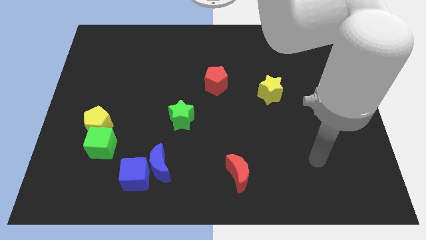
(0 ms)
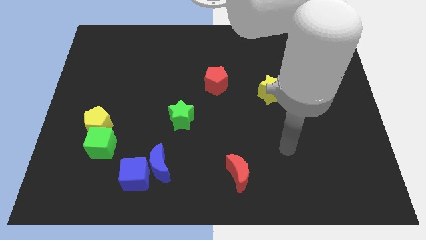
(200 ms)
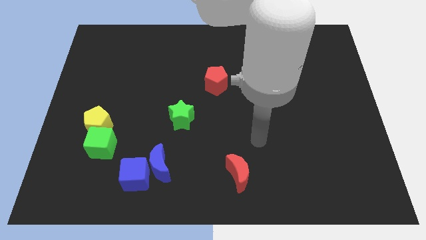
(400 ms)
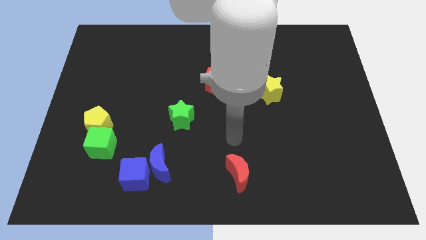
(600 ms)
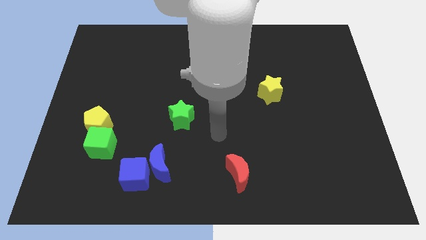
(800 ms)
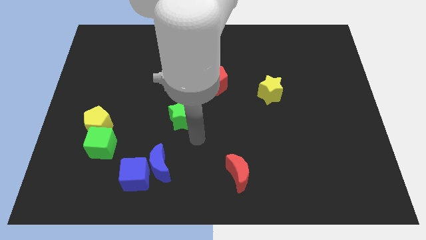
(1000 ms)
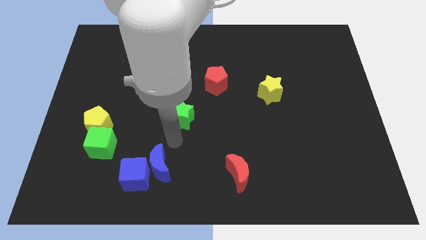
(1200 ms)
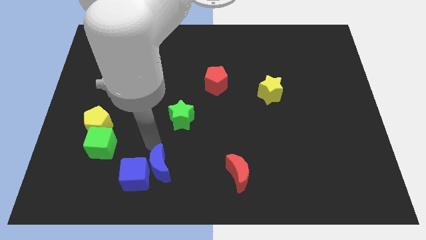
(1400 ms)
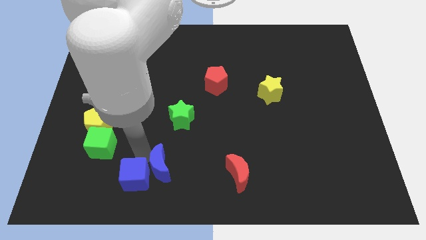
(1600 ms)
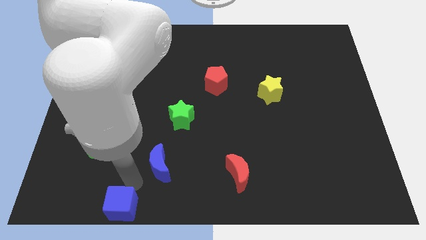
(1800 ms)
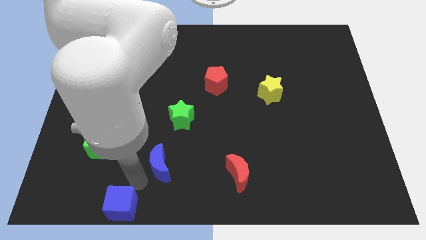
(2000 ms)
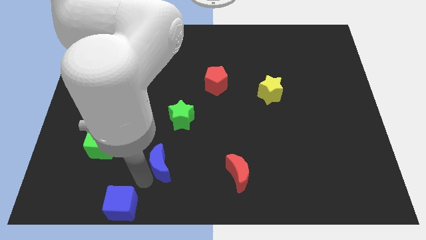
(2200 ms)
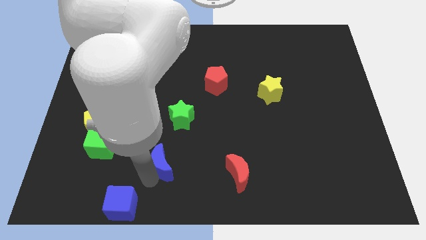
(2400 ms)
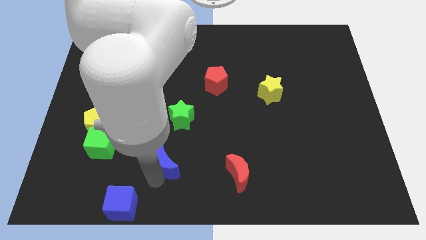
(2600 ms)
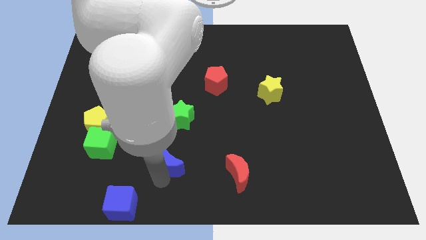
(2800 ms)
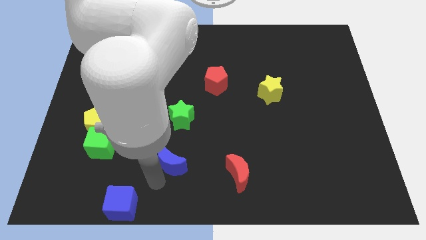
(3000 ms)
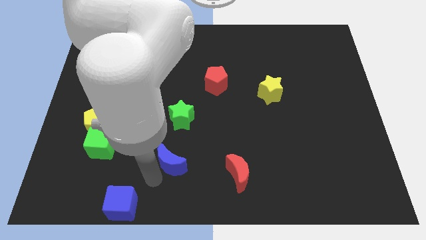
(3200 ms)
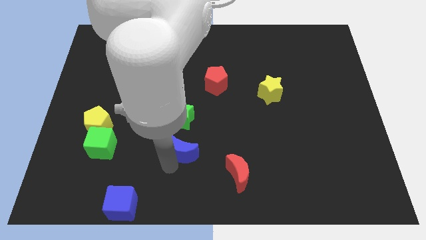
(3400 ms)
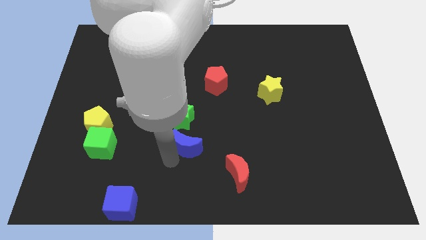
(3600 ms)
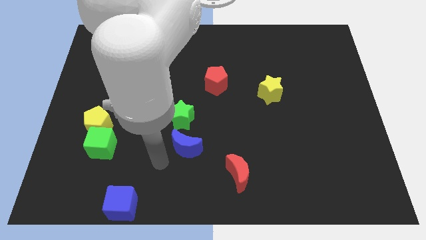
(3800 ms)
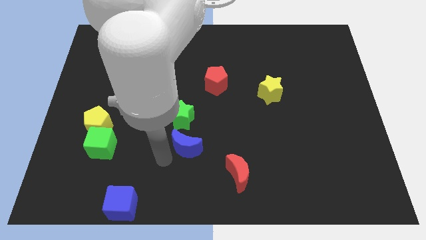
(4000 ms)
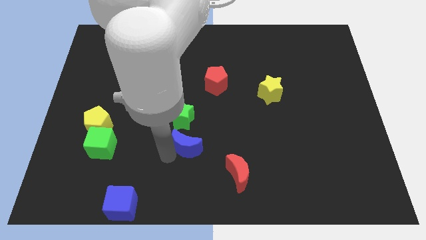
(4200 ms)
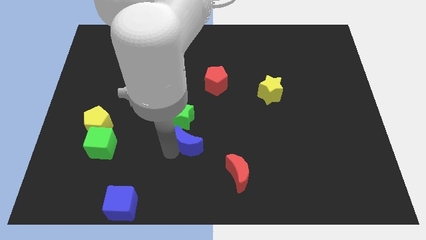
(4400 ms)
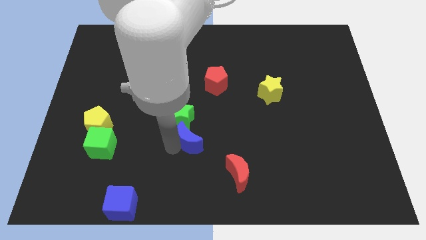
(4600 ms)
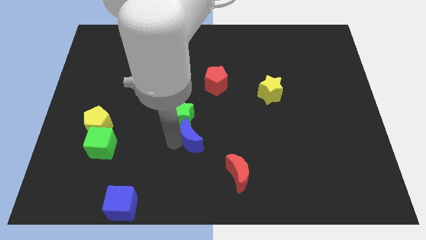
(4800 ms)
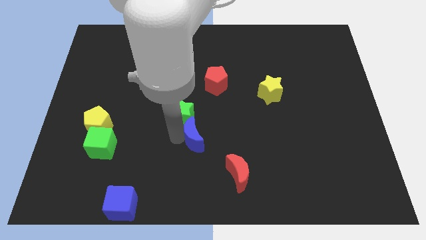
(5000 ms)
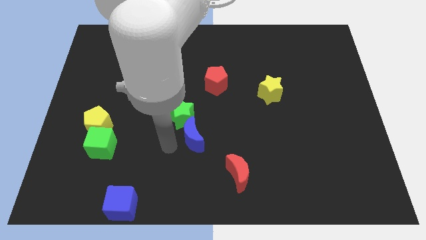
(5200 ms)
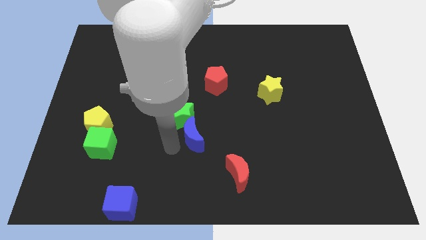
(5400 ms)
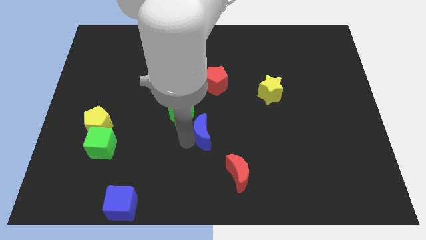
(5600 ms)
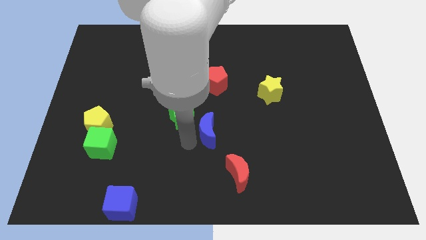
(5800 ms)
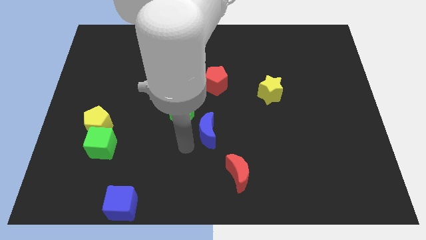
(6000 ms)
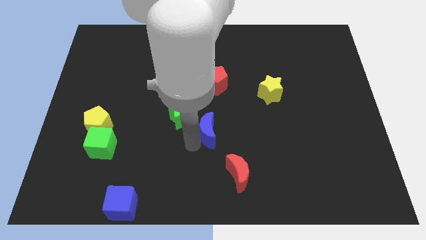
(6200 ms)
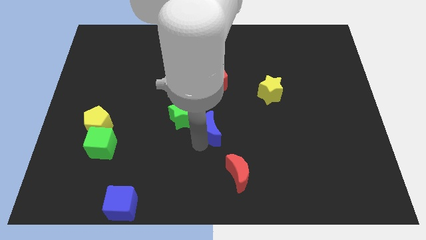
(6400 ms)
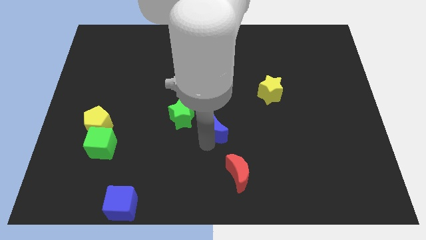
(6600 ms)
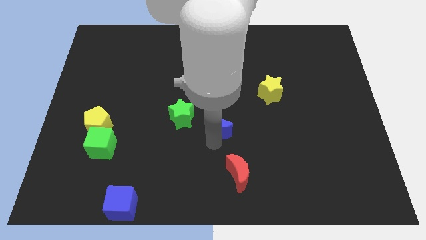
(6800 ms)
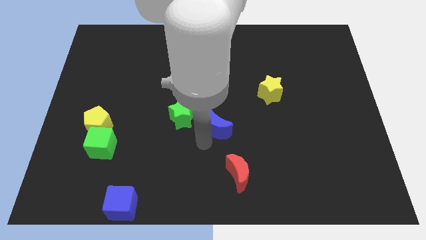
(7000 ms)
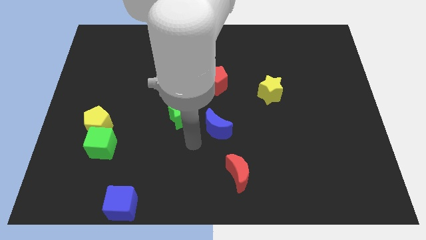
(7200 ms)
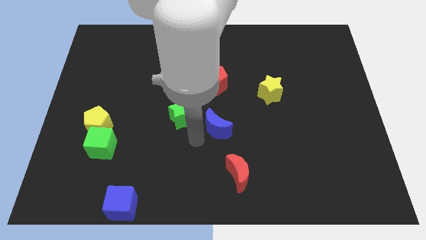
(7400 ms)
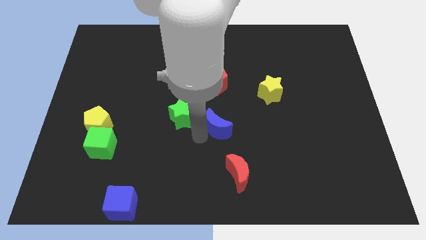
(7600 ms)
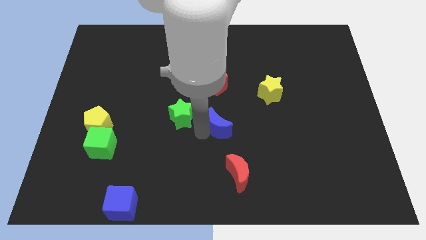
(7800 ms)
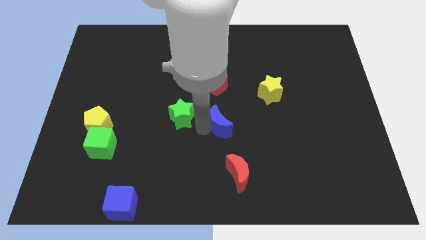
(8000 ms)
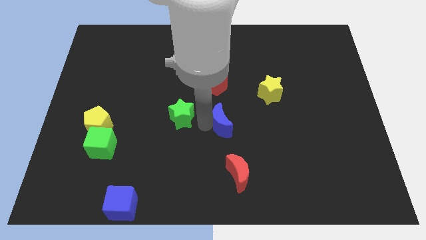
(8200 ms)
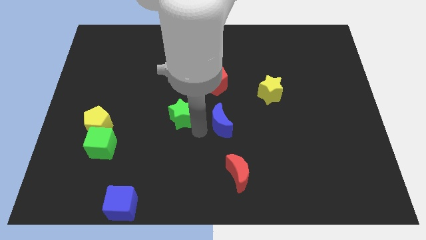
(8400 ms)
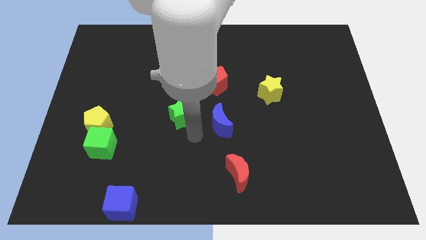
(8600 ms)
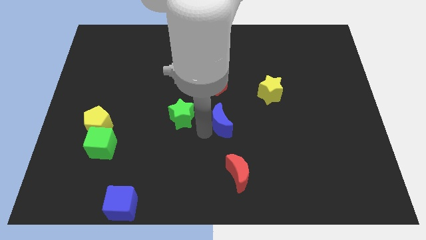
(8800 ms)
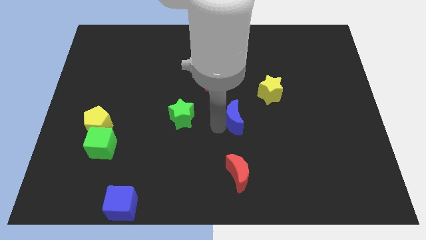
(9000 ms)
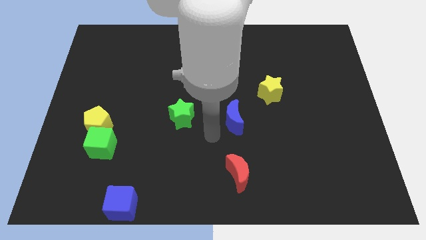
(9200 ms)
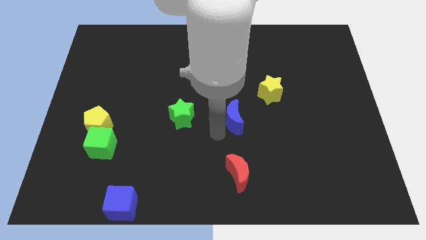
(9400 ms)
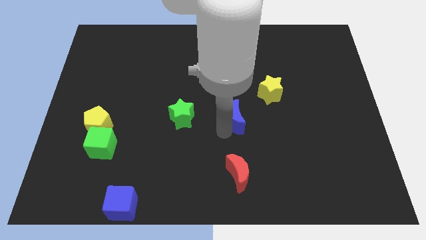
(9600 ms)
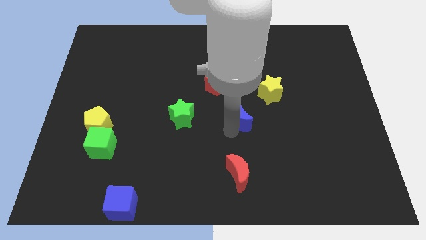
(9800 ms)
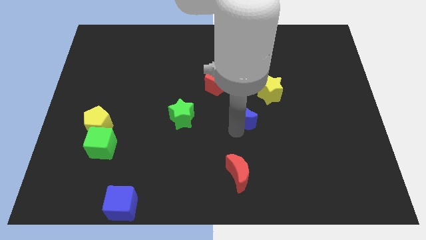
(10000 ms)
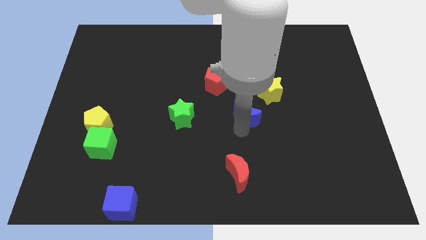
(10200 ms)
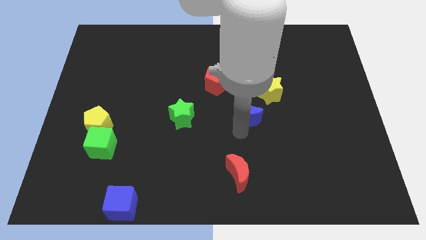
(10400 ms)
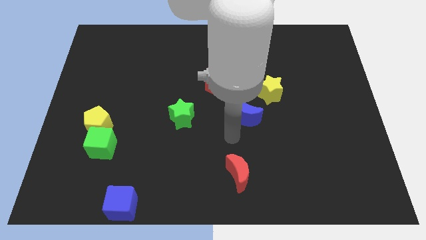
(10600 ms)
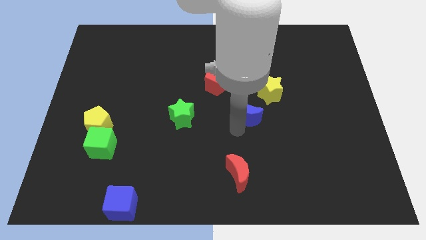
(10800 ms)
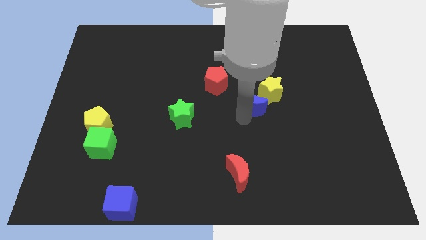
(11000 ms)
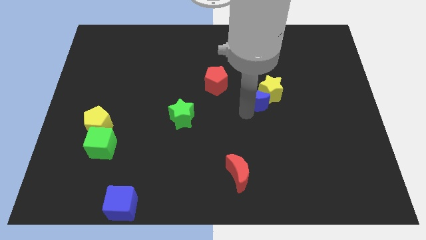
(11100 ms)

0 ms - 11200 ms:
slide the blue moon close to the yellow star

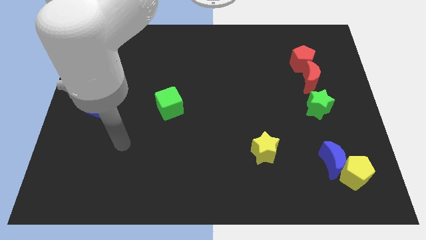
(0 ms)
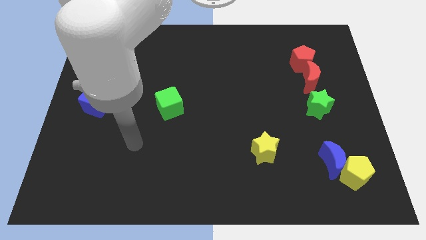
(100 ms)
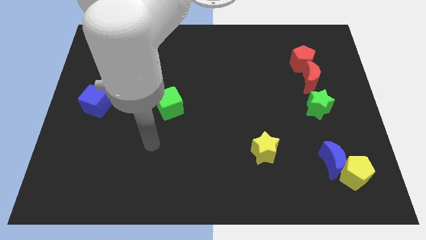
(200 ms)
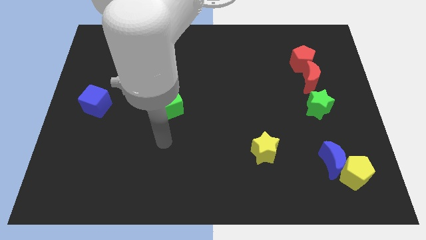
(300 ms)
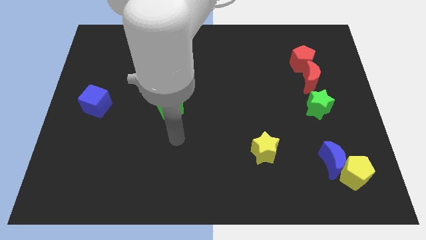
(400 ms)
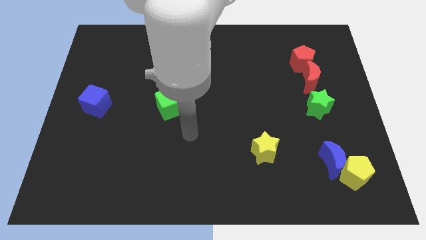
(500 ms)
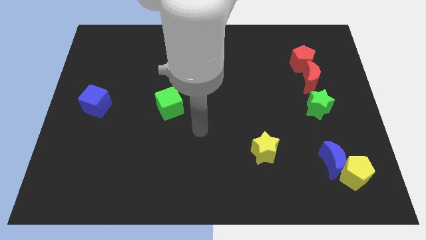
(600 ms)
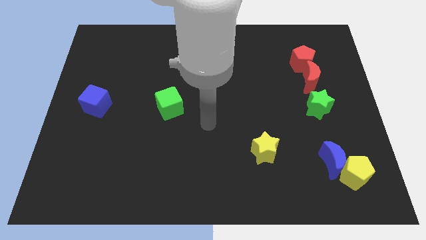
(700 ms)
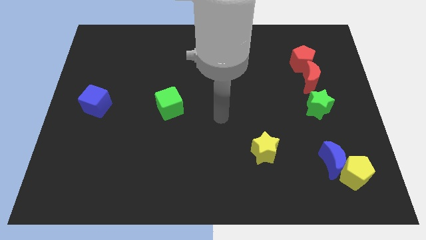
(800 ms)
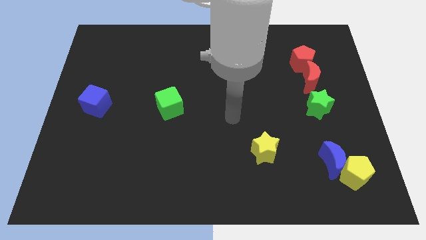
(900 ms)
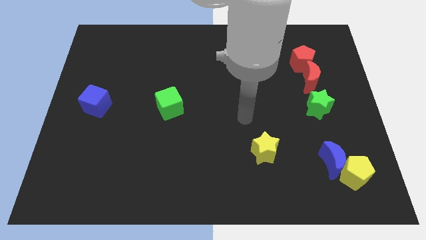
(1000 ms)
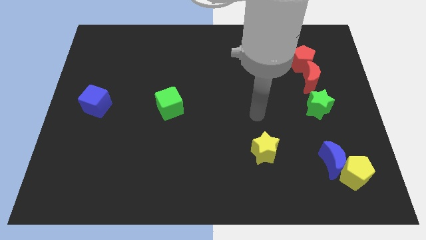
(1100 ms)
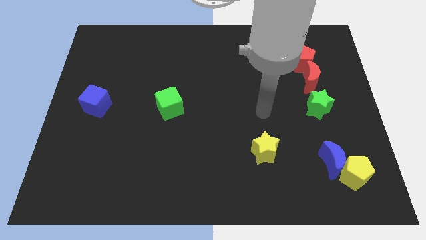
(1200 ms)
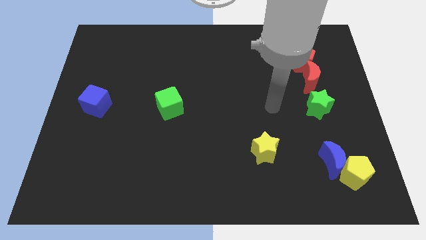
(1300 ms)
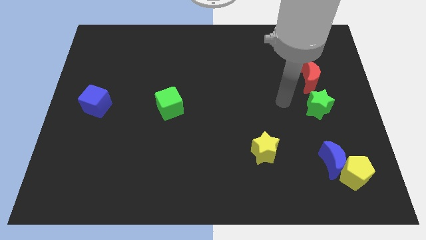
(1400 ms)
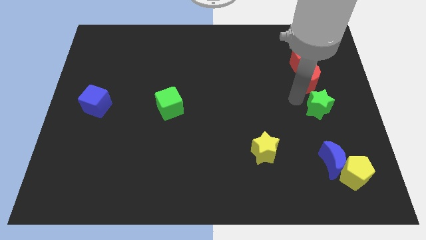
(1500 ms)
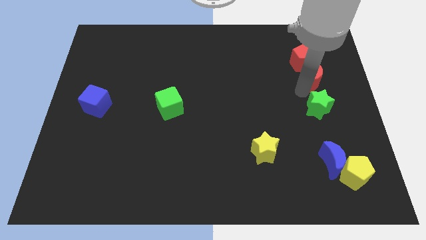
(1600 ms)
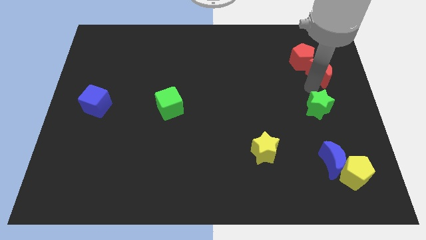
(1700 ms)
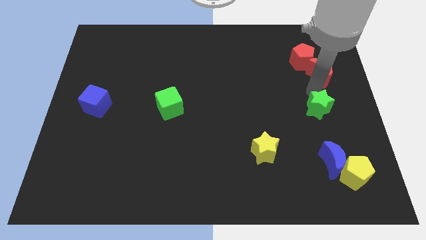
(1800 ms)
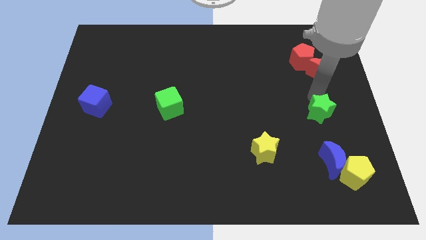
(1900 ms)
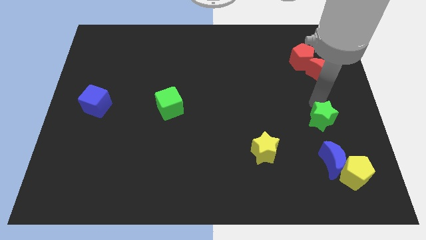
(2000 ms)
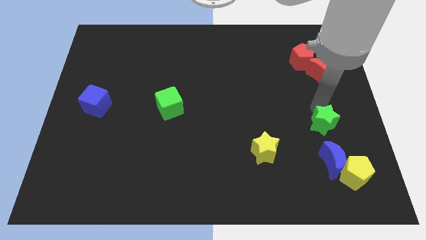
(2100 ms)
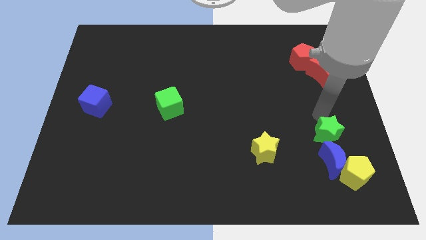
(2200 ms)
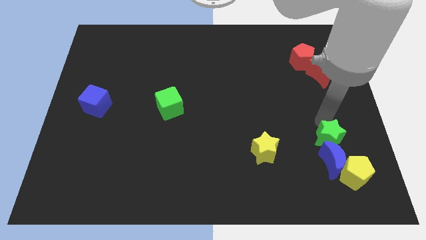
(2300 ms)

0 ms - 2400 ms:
push the green star towards the blue moon
